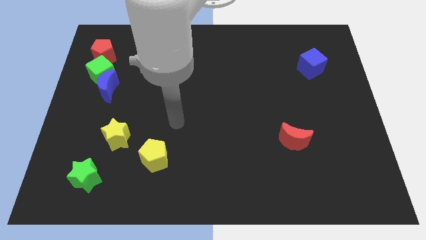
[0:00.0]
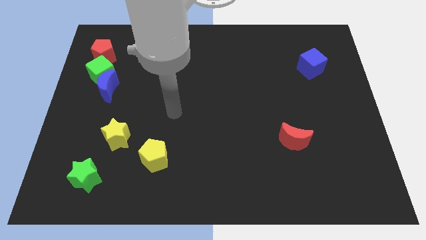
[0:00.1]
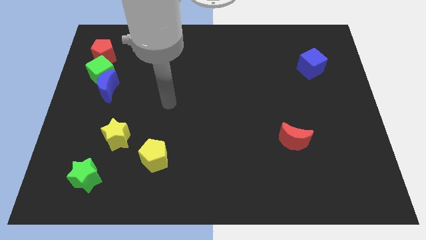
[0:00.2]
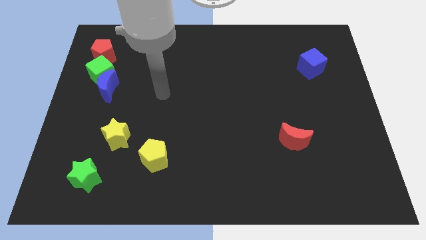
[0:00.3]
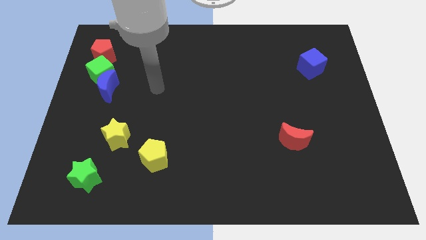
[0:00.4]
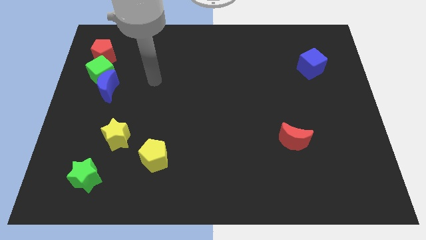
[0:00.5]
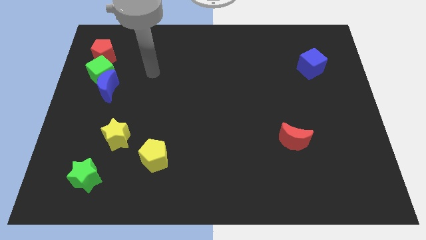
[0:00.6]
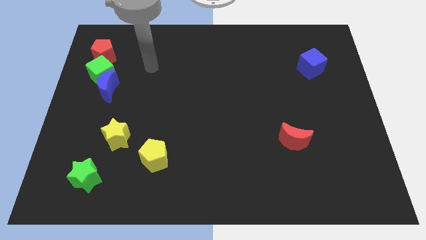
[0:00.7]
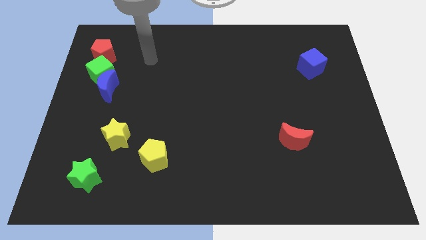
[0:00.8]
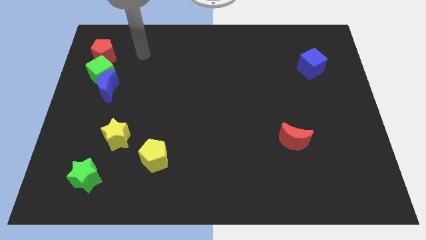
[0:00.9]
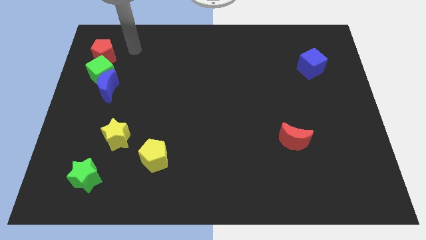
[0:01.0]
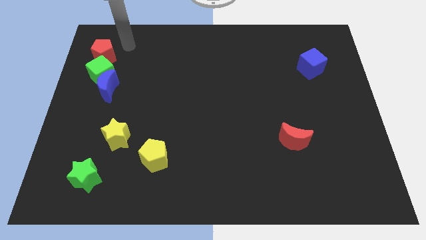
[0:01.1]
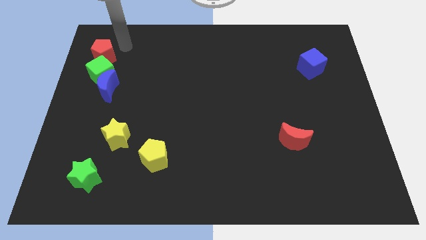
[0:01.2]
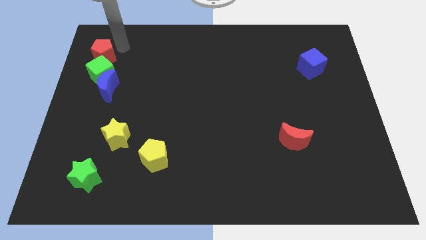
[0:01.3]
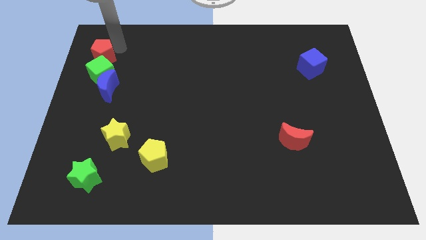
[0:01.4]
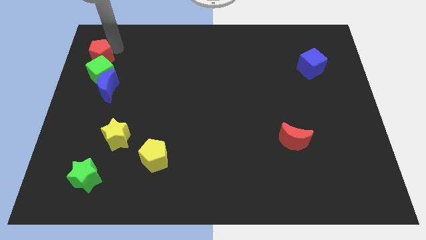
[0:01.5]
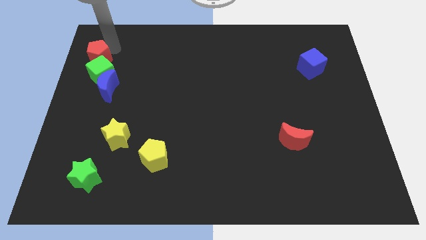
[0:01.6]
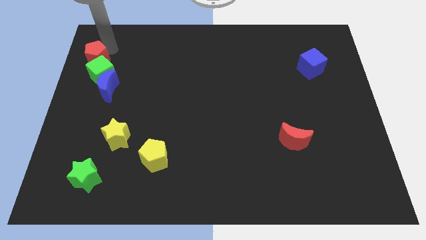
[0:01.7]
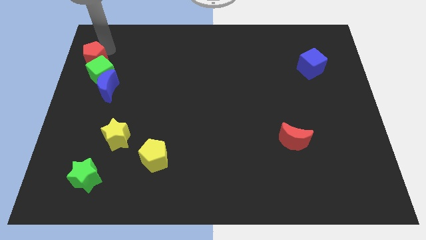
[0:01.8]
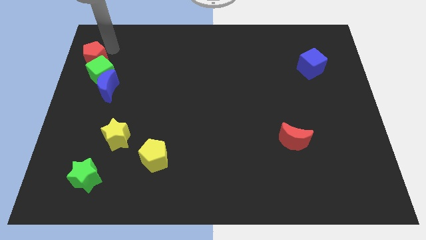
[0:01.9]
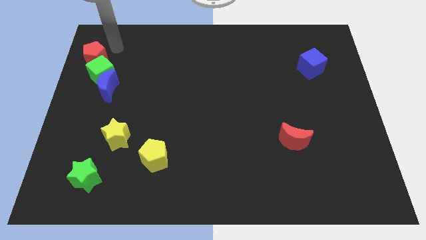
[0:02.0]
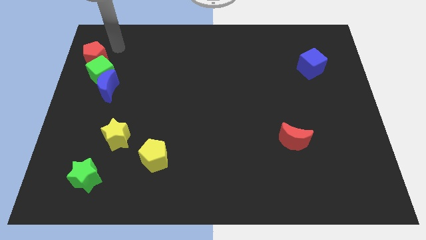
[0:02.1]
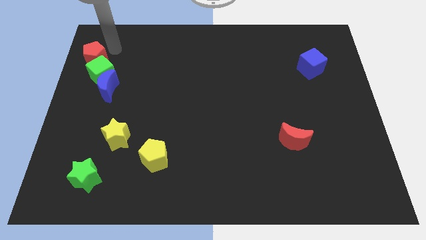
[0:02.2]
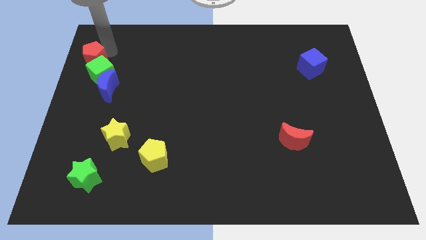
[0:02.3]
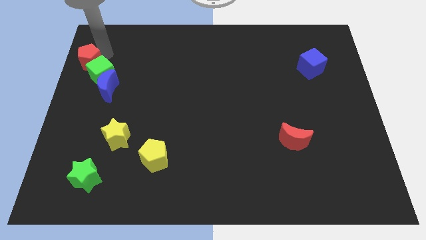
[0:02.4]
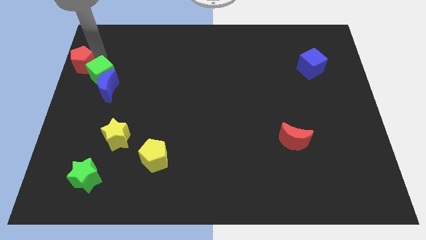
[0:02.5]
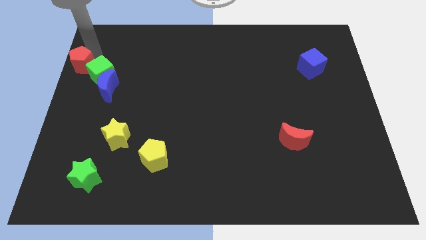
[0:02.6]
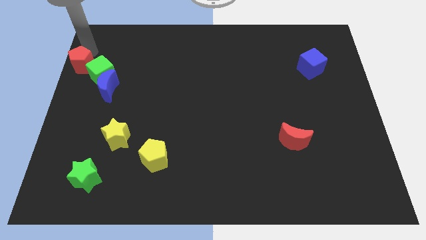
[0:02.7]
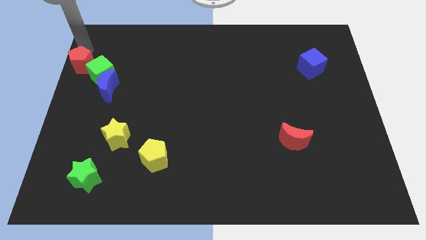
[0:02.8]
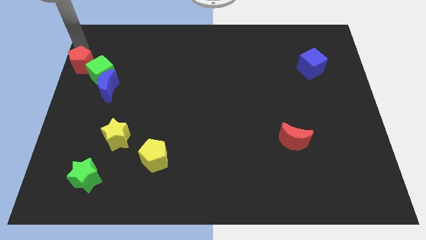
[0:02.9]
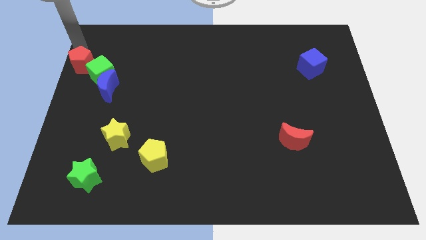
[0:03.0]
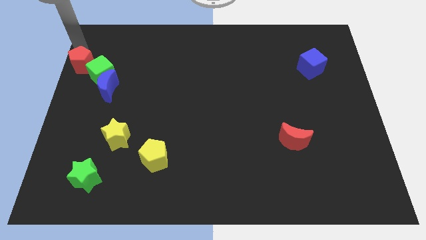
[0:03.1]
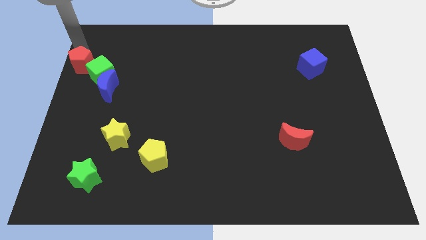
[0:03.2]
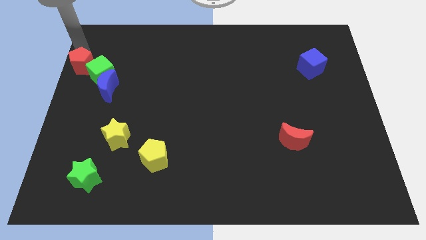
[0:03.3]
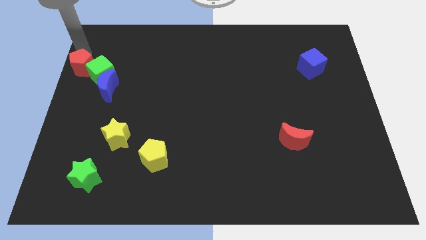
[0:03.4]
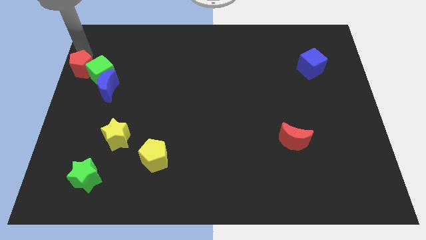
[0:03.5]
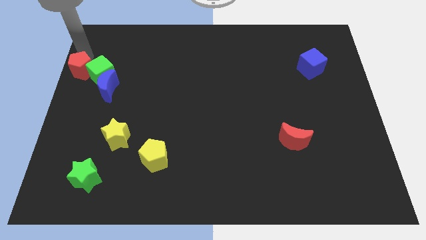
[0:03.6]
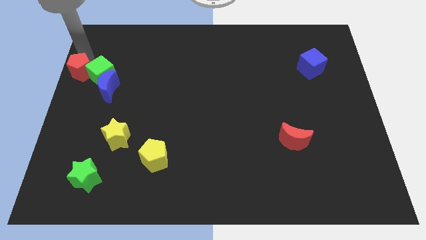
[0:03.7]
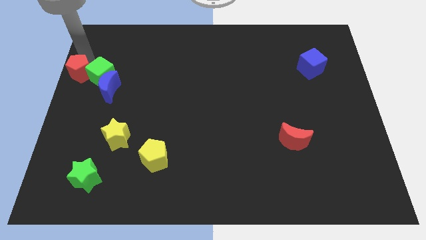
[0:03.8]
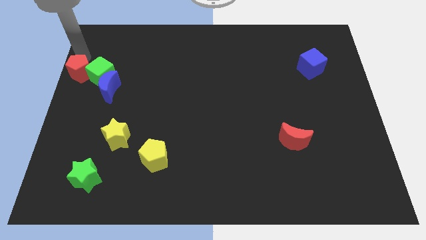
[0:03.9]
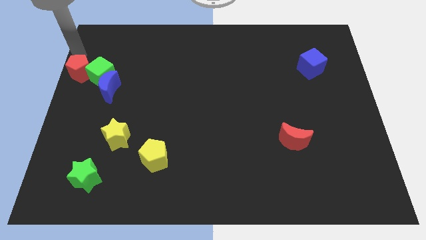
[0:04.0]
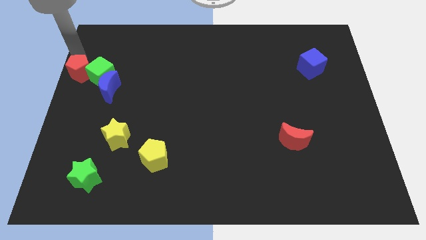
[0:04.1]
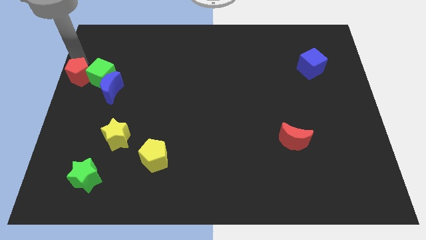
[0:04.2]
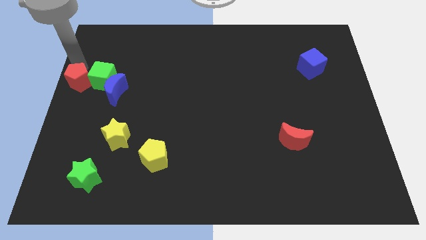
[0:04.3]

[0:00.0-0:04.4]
slightly push the red pentagon down

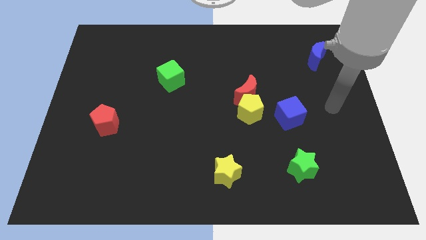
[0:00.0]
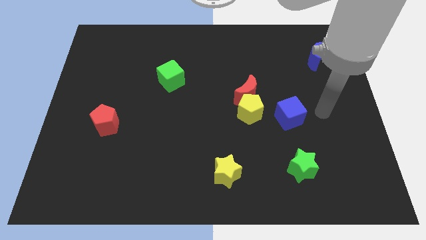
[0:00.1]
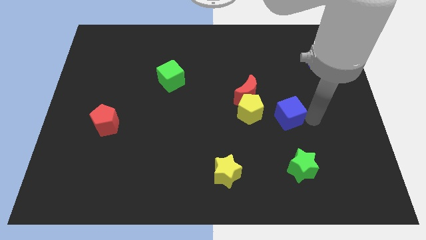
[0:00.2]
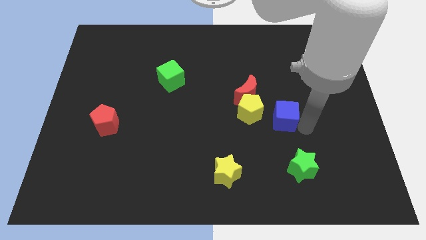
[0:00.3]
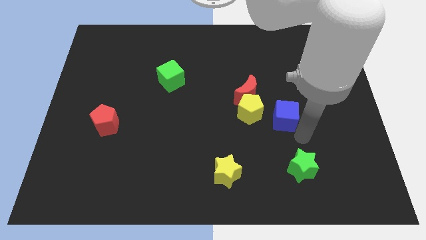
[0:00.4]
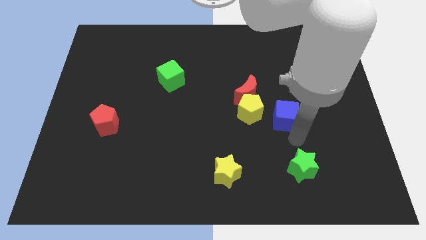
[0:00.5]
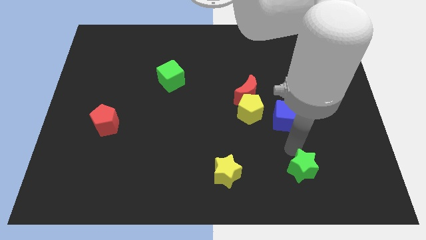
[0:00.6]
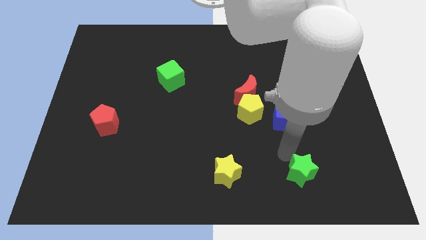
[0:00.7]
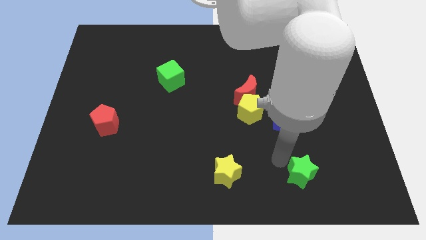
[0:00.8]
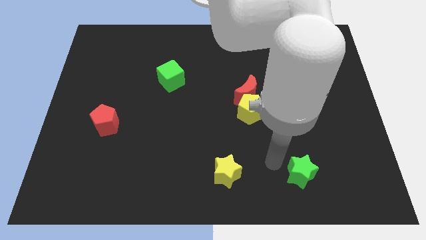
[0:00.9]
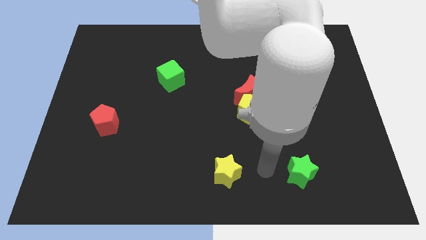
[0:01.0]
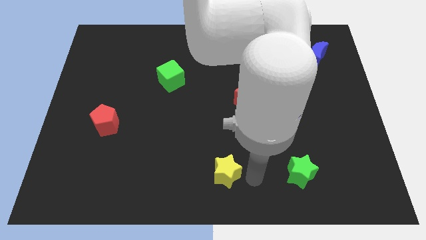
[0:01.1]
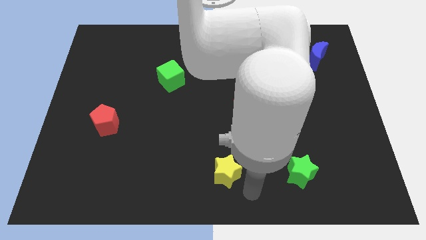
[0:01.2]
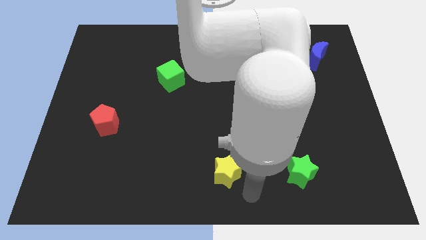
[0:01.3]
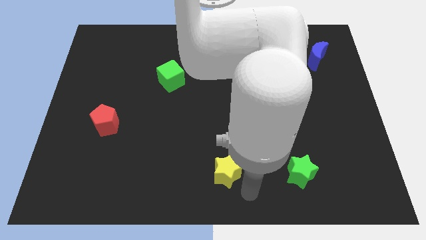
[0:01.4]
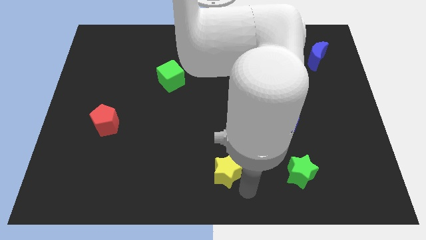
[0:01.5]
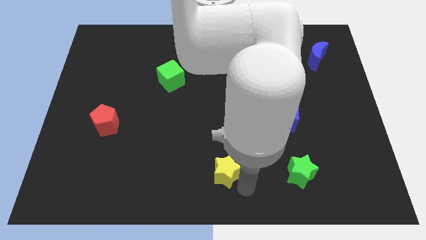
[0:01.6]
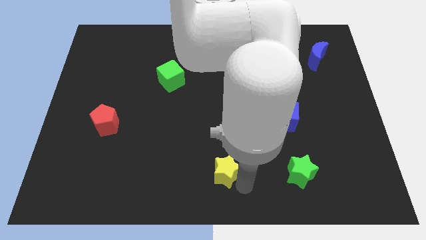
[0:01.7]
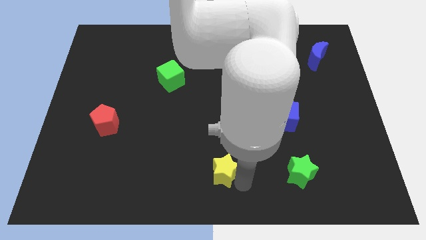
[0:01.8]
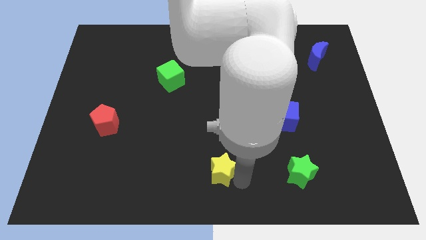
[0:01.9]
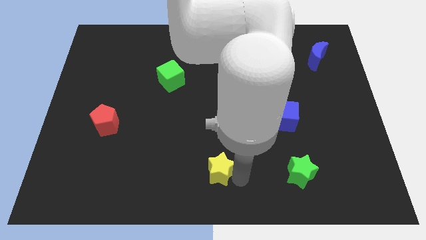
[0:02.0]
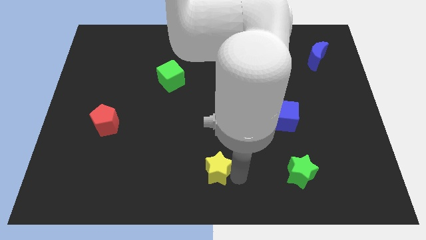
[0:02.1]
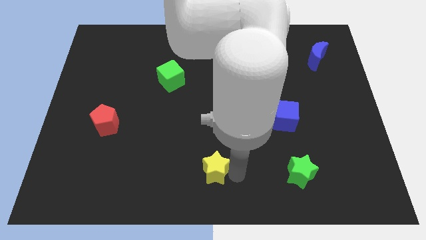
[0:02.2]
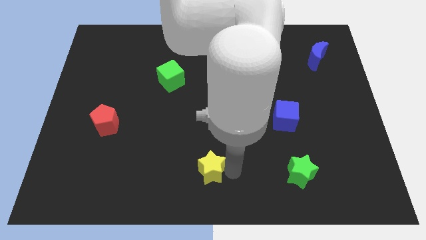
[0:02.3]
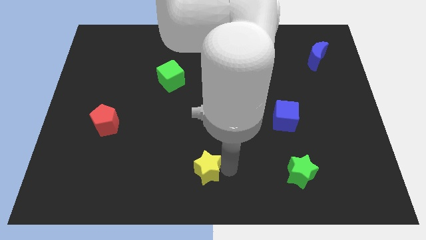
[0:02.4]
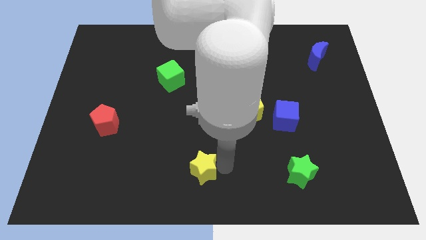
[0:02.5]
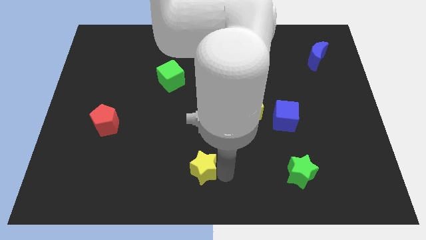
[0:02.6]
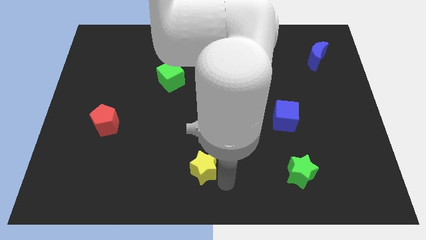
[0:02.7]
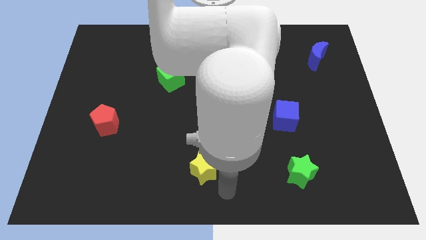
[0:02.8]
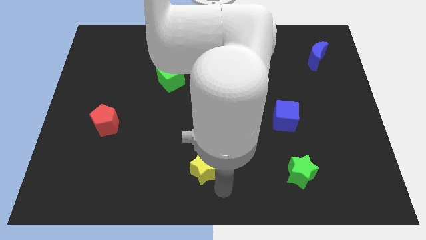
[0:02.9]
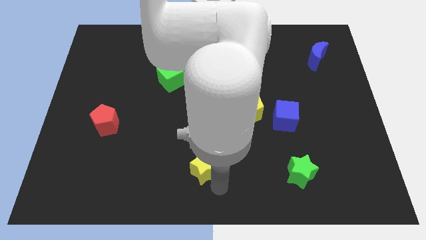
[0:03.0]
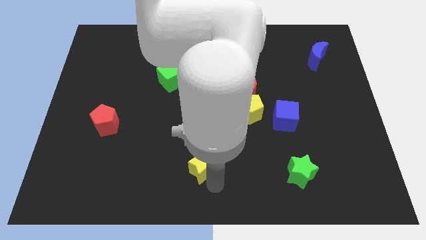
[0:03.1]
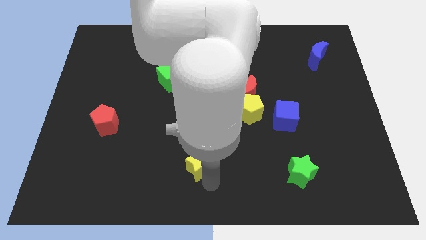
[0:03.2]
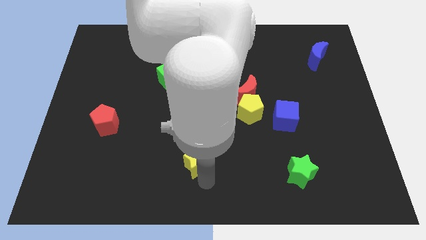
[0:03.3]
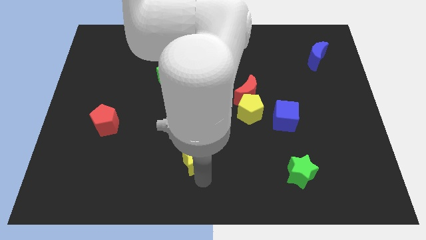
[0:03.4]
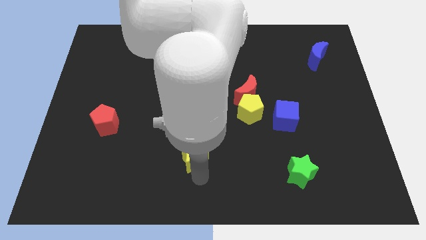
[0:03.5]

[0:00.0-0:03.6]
slightly slide the yellow star up and then to the left

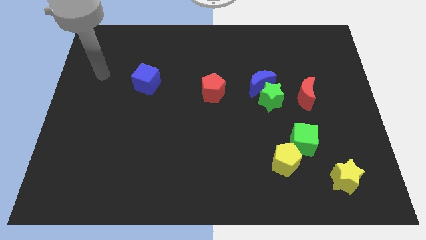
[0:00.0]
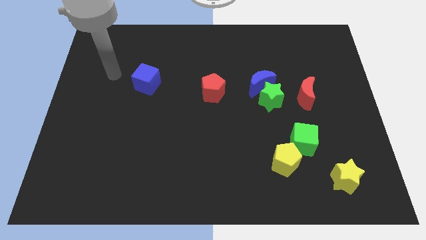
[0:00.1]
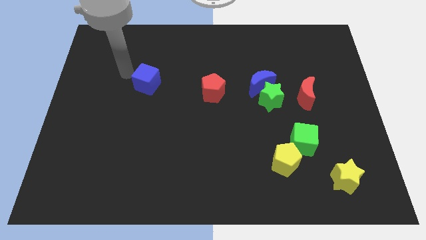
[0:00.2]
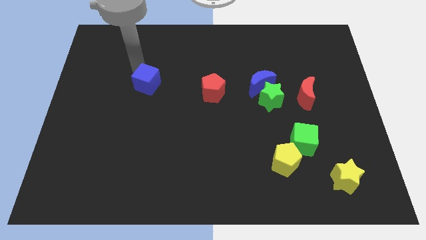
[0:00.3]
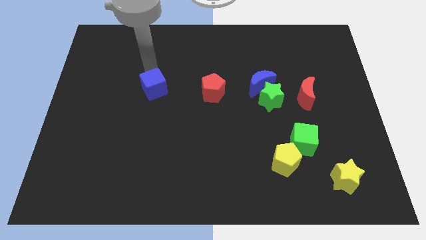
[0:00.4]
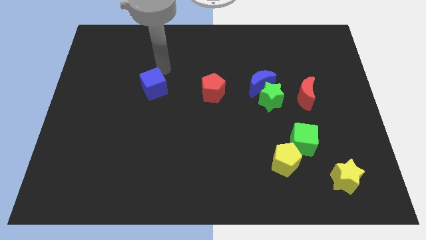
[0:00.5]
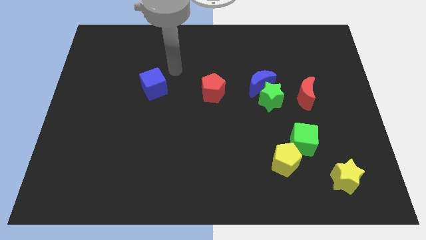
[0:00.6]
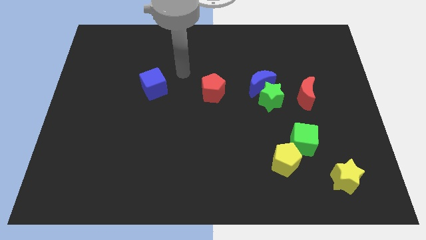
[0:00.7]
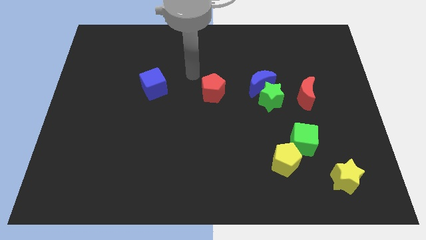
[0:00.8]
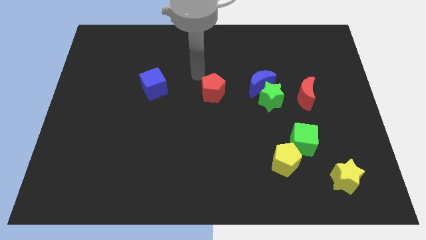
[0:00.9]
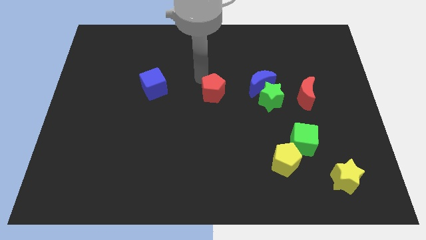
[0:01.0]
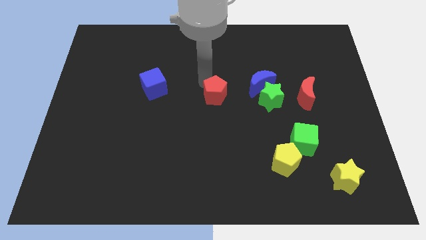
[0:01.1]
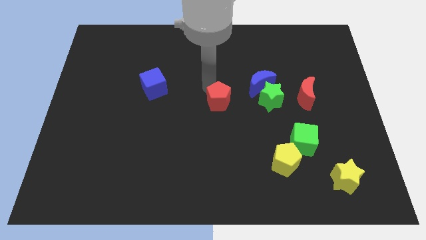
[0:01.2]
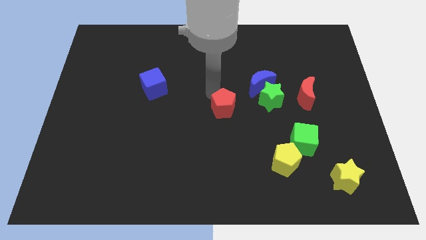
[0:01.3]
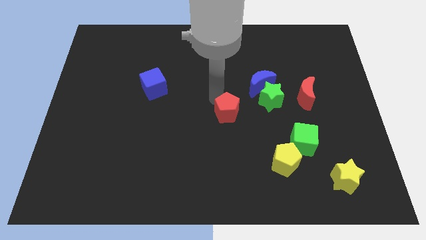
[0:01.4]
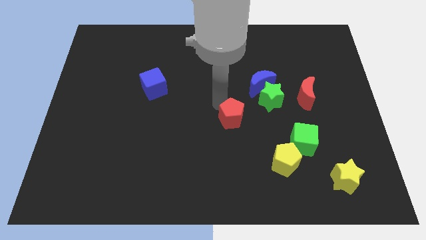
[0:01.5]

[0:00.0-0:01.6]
slide the red pentagon a little down and then right
